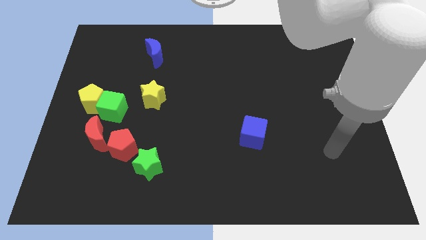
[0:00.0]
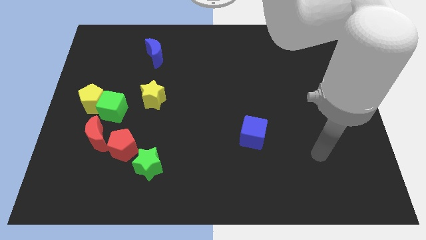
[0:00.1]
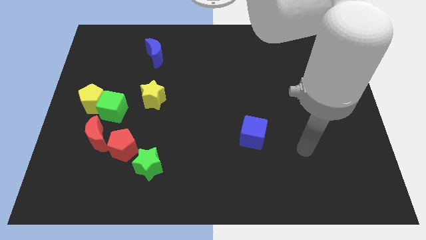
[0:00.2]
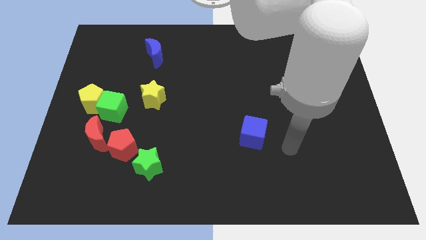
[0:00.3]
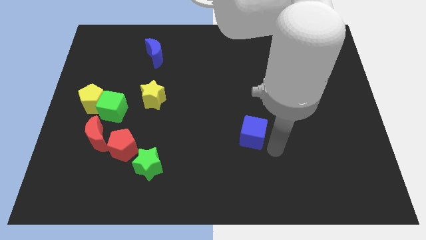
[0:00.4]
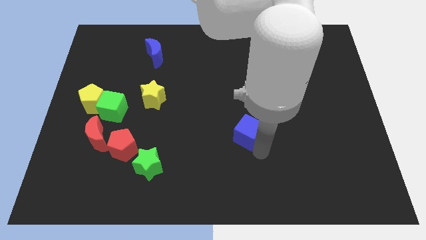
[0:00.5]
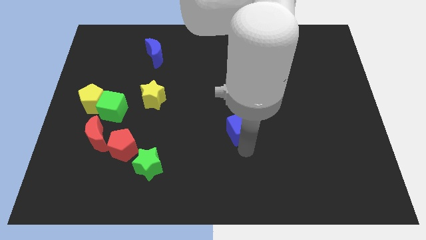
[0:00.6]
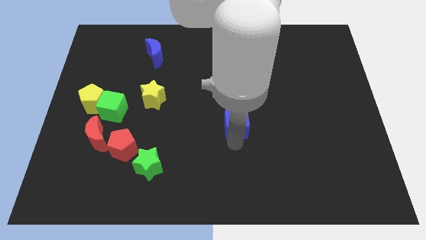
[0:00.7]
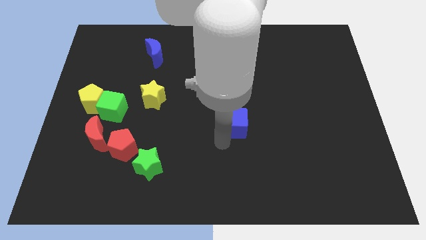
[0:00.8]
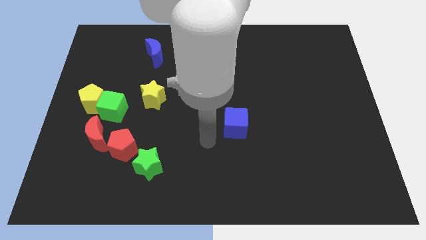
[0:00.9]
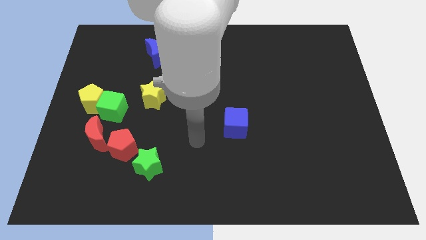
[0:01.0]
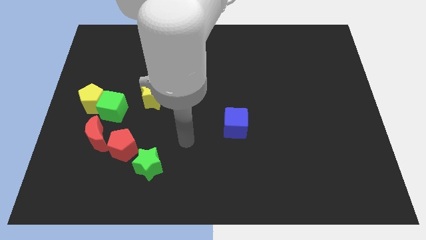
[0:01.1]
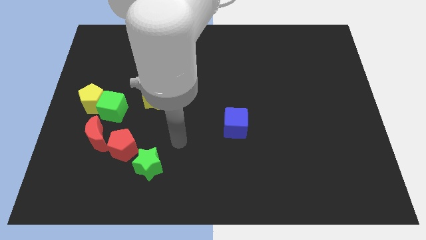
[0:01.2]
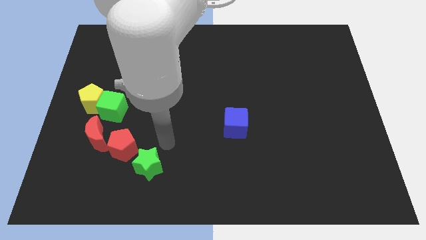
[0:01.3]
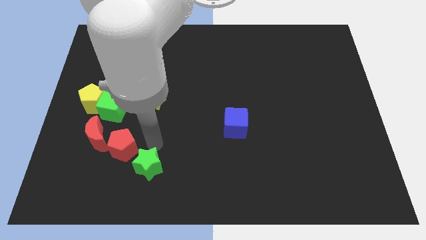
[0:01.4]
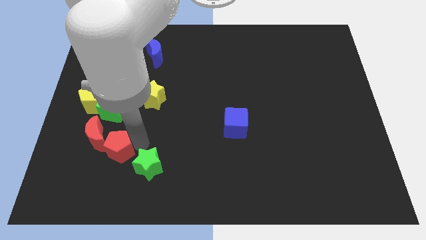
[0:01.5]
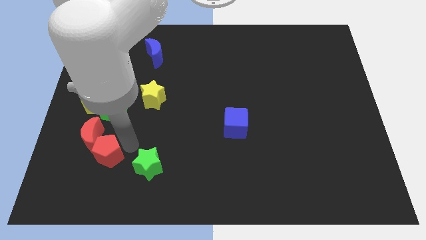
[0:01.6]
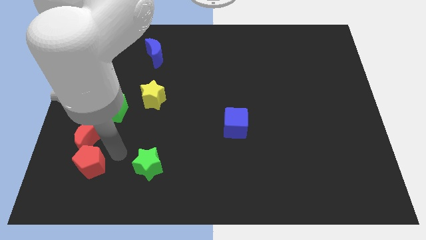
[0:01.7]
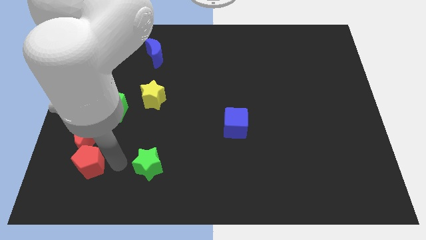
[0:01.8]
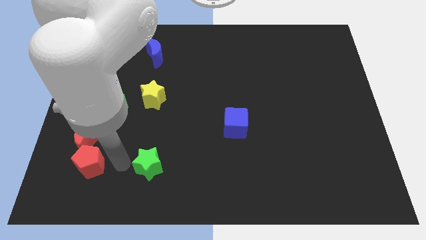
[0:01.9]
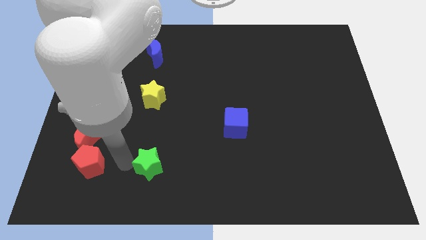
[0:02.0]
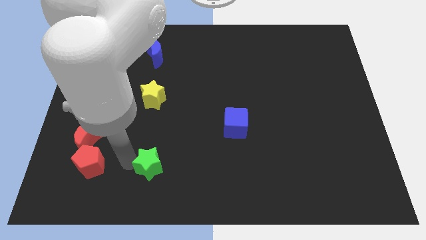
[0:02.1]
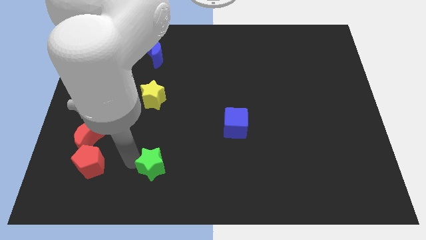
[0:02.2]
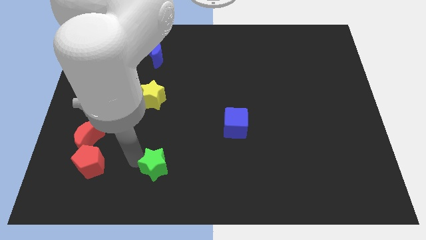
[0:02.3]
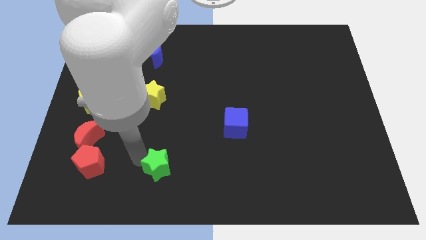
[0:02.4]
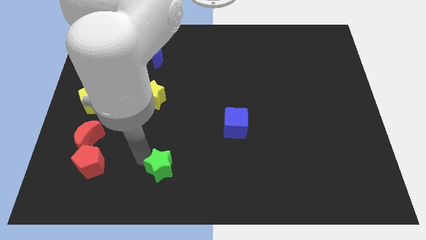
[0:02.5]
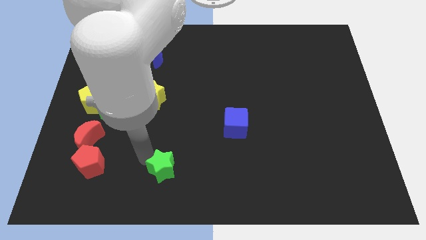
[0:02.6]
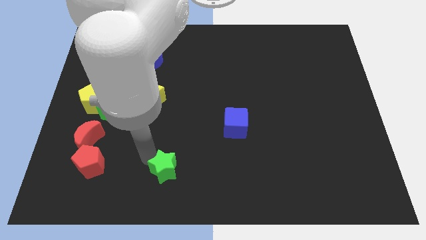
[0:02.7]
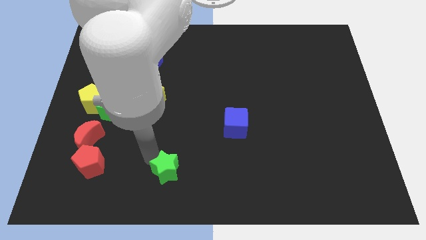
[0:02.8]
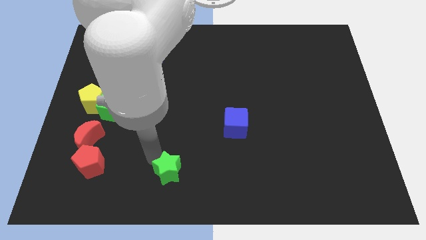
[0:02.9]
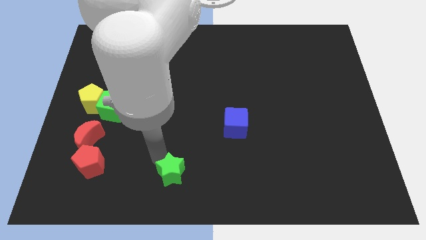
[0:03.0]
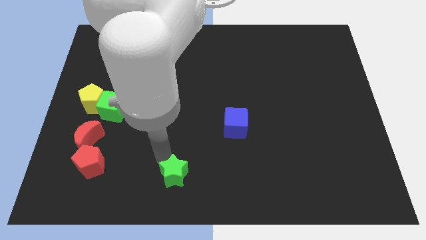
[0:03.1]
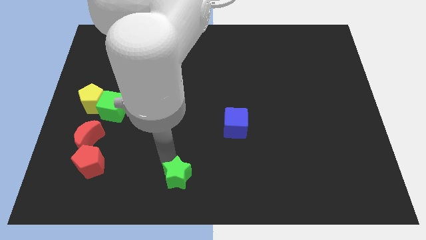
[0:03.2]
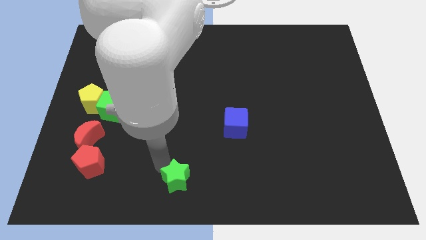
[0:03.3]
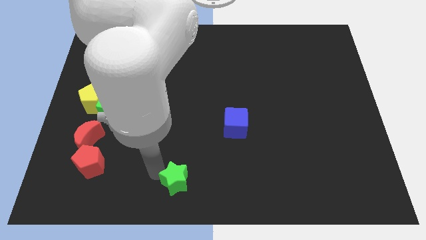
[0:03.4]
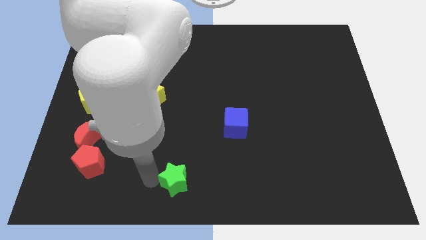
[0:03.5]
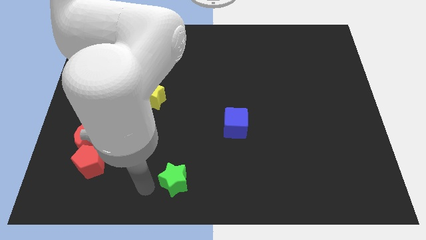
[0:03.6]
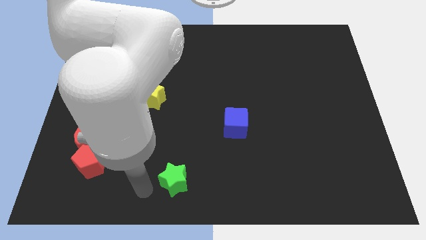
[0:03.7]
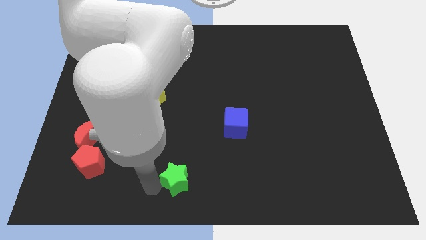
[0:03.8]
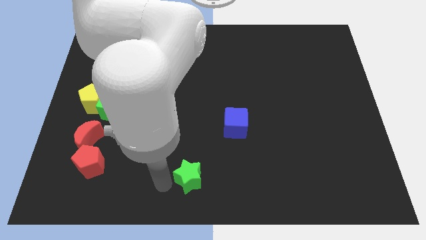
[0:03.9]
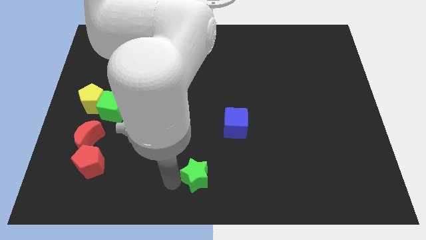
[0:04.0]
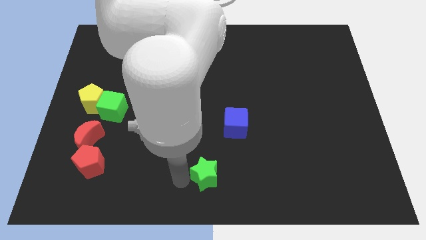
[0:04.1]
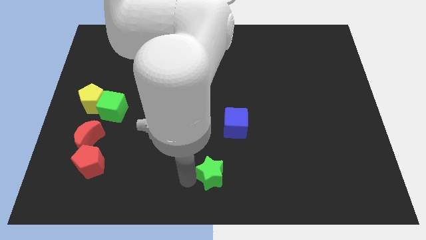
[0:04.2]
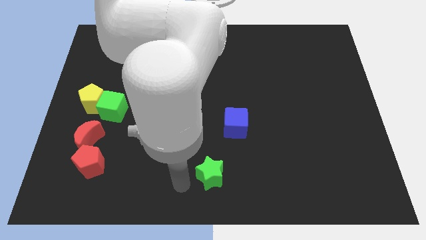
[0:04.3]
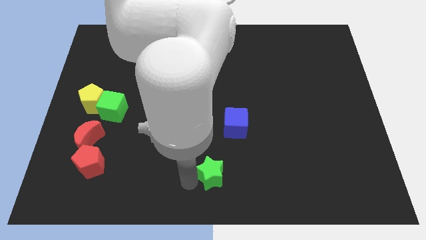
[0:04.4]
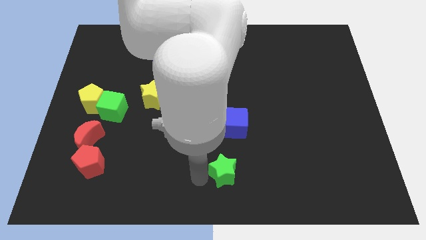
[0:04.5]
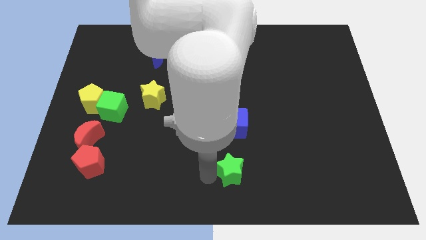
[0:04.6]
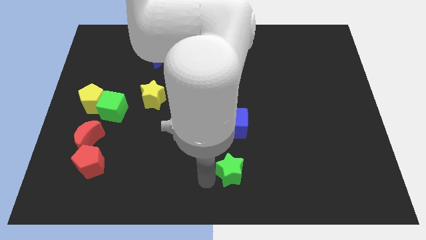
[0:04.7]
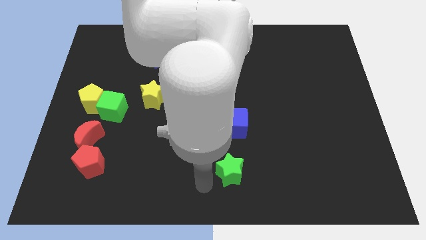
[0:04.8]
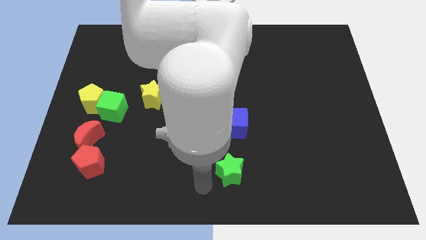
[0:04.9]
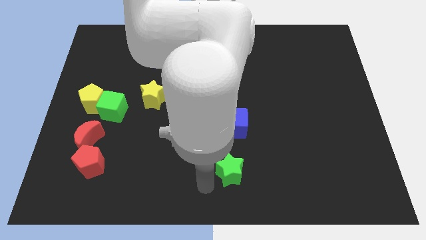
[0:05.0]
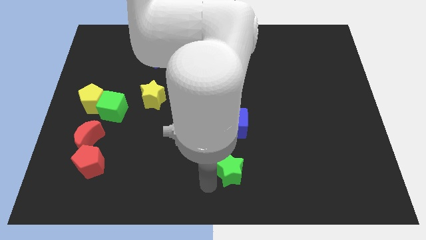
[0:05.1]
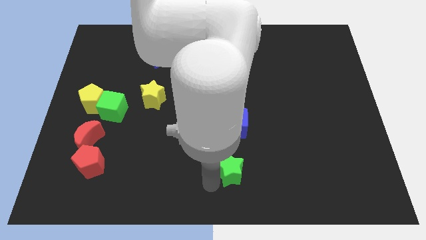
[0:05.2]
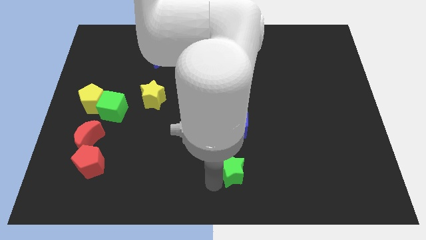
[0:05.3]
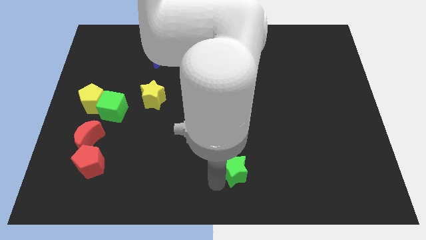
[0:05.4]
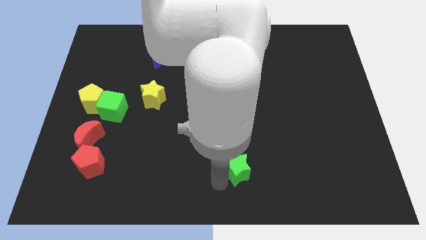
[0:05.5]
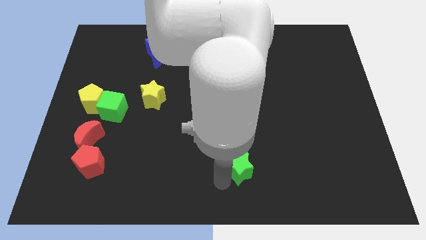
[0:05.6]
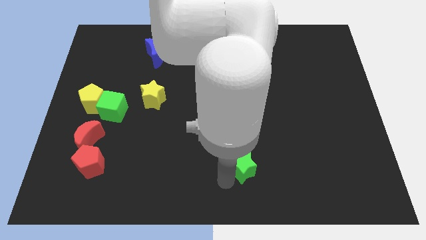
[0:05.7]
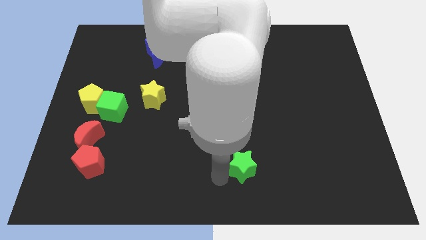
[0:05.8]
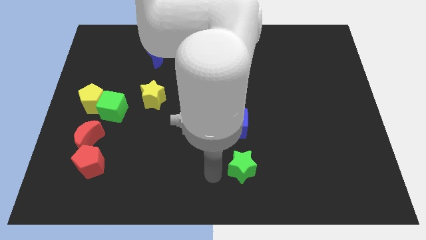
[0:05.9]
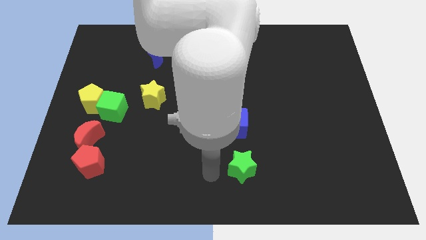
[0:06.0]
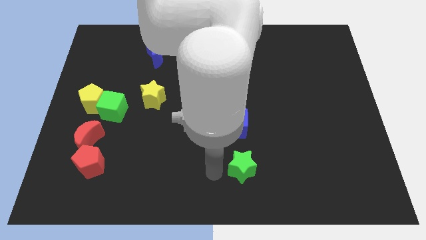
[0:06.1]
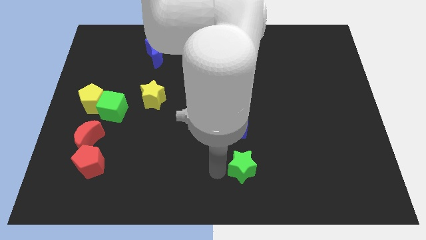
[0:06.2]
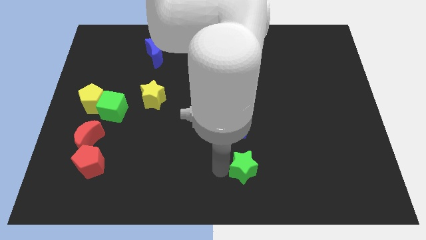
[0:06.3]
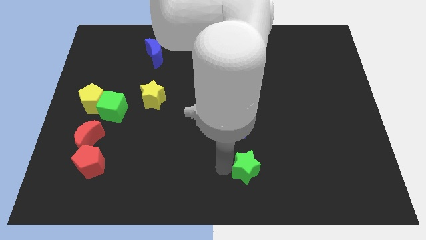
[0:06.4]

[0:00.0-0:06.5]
slide the green star right

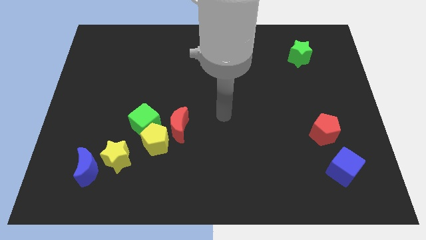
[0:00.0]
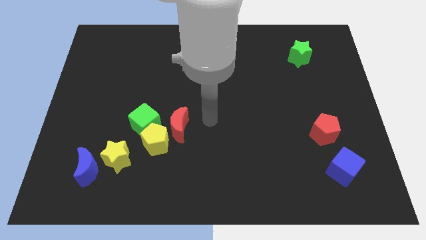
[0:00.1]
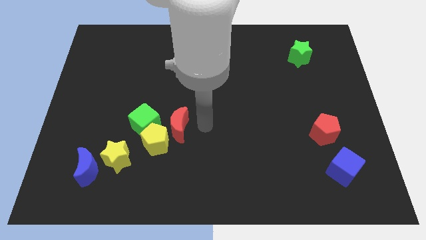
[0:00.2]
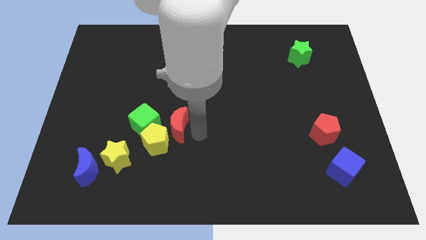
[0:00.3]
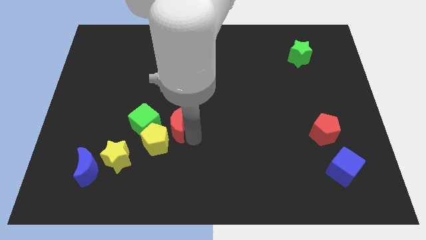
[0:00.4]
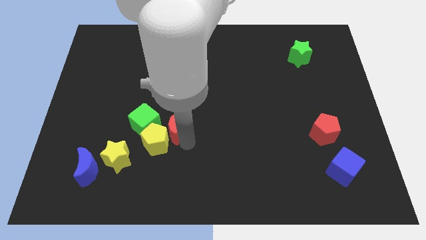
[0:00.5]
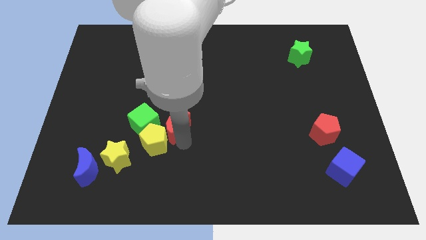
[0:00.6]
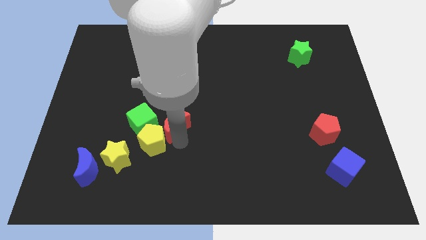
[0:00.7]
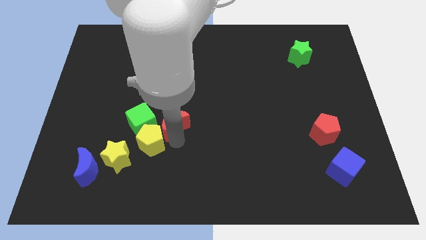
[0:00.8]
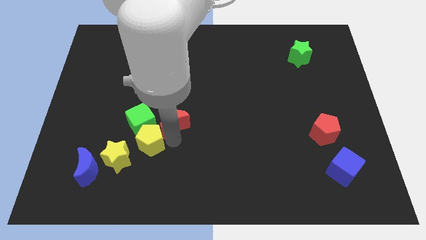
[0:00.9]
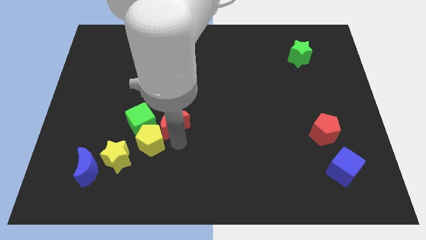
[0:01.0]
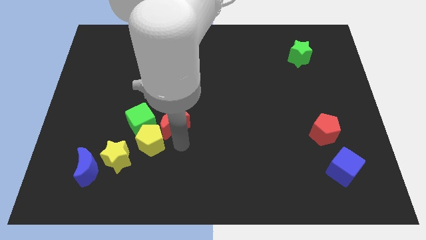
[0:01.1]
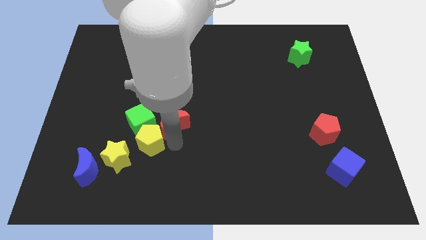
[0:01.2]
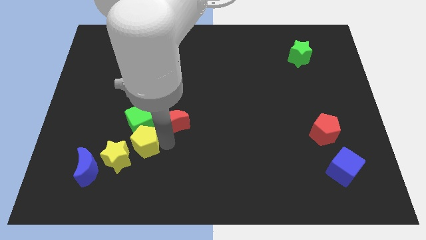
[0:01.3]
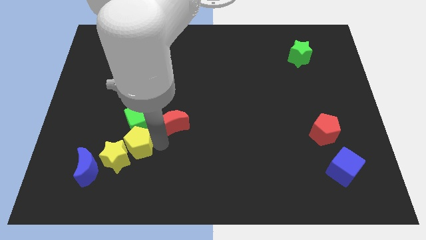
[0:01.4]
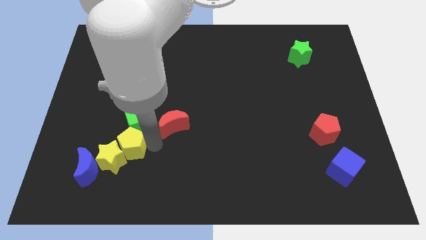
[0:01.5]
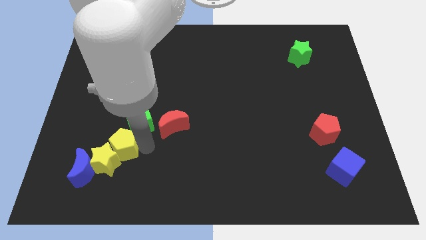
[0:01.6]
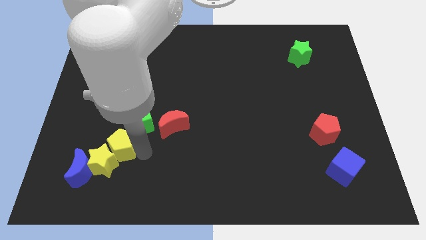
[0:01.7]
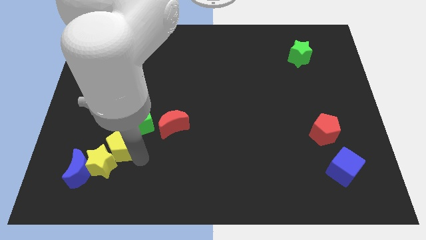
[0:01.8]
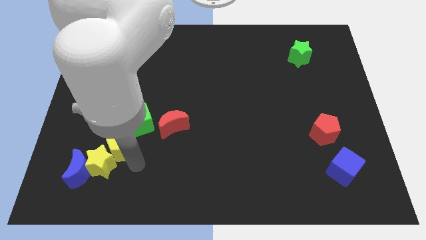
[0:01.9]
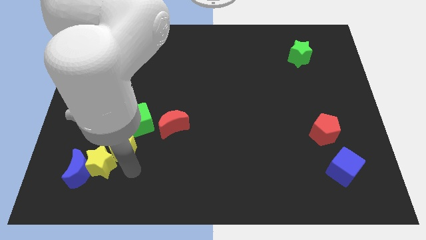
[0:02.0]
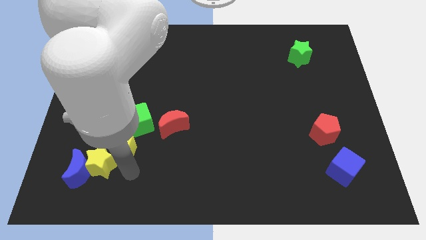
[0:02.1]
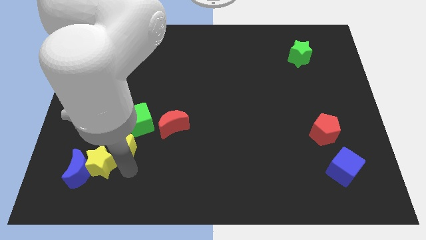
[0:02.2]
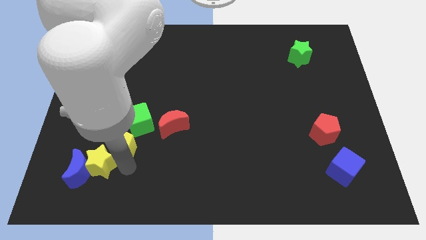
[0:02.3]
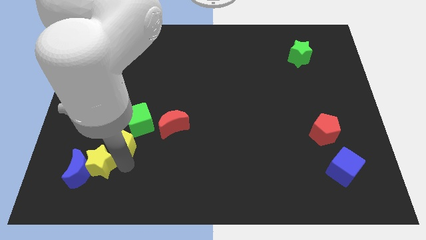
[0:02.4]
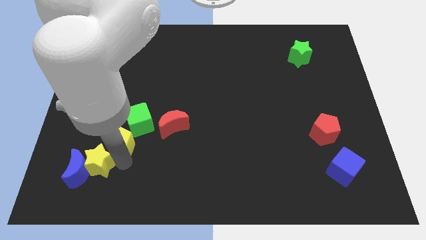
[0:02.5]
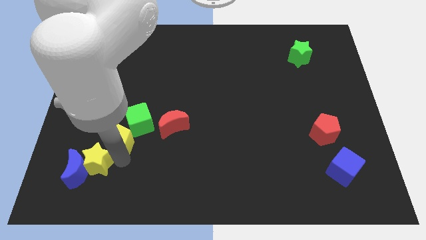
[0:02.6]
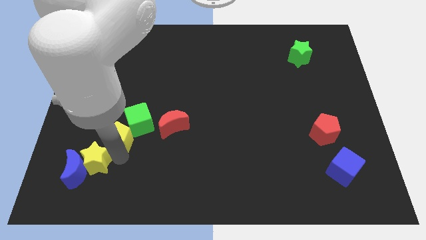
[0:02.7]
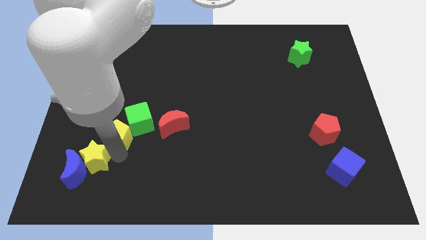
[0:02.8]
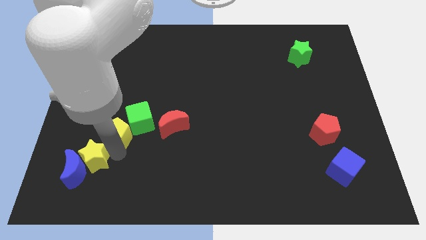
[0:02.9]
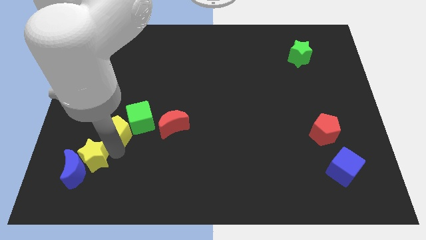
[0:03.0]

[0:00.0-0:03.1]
slightly push the yellow pentagon upwards and to the left diagonally
